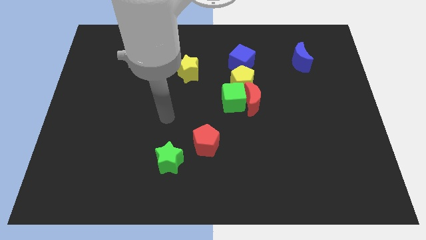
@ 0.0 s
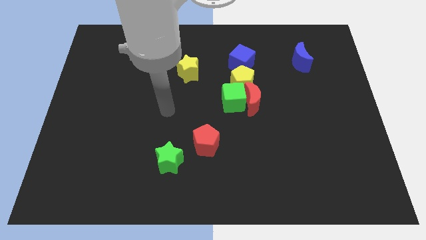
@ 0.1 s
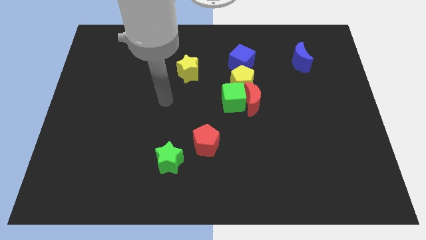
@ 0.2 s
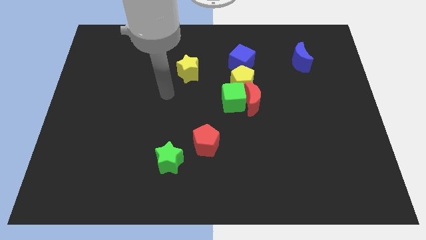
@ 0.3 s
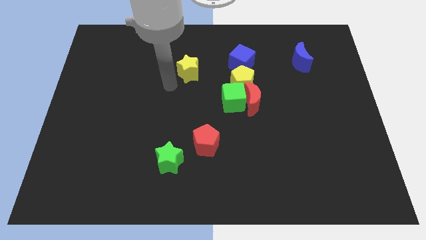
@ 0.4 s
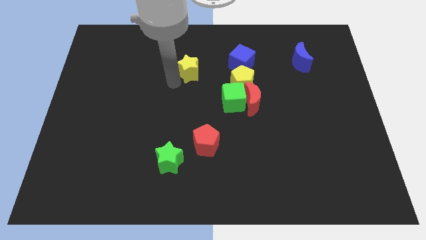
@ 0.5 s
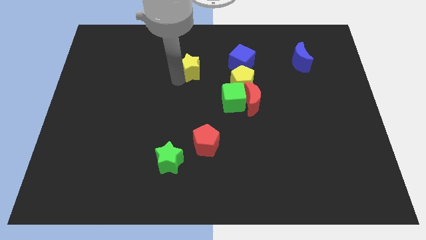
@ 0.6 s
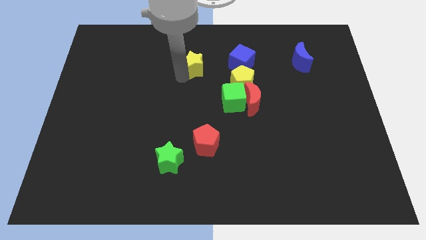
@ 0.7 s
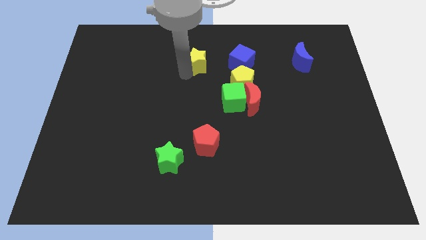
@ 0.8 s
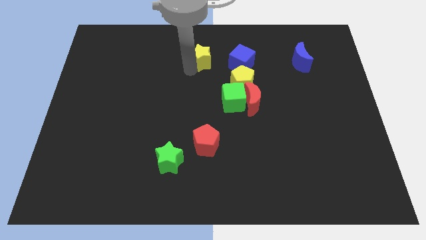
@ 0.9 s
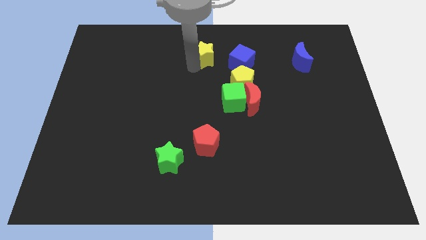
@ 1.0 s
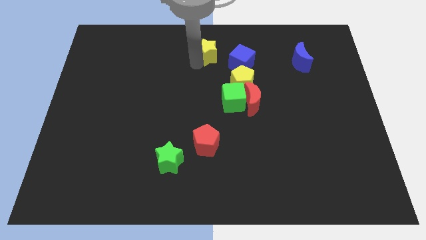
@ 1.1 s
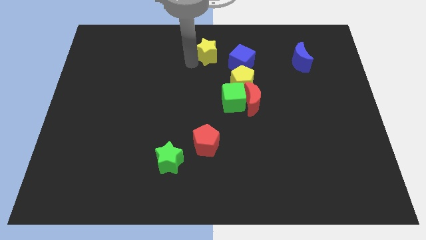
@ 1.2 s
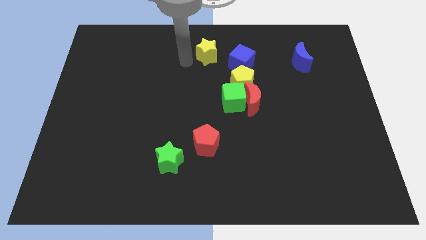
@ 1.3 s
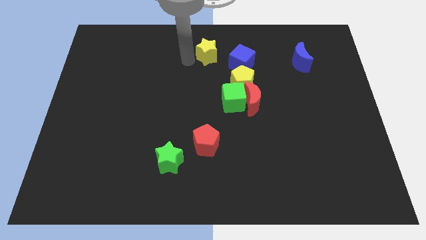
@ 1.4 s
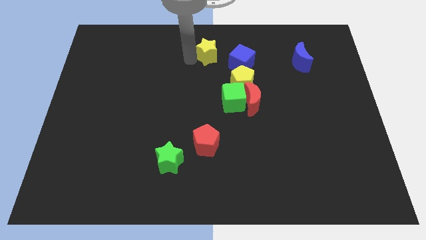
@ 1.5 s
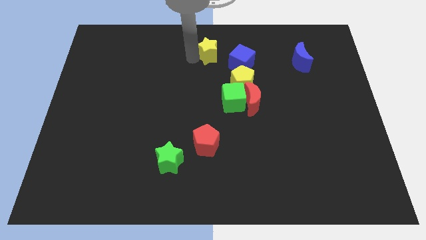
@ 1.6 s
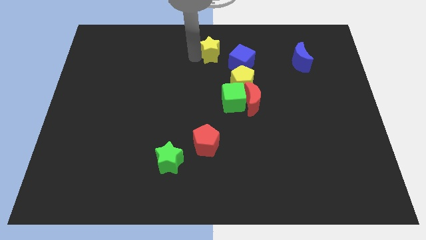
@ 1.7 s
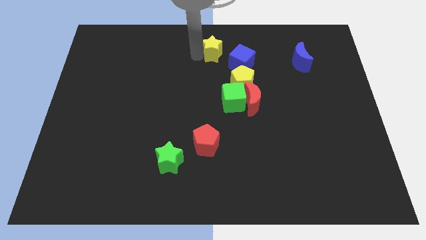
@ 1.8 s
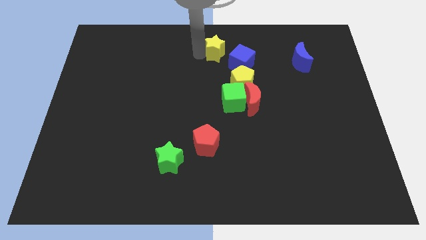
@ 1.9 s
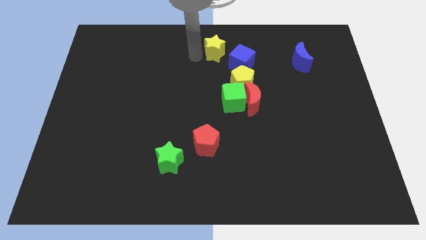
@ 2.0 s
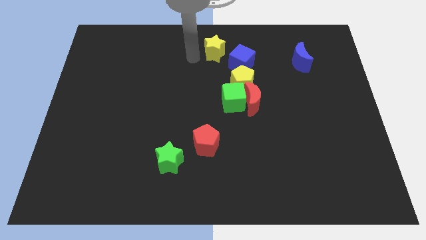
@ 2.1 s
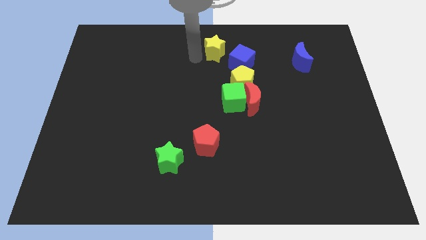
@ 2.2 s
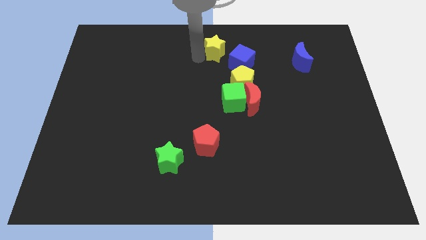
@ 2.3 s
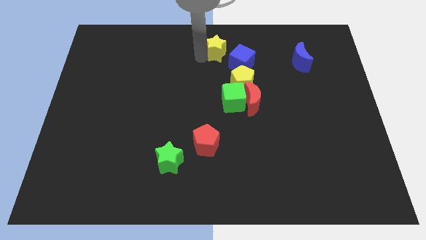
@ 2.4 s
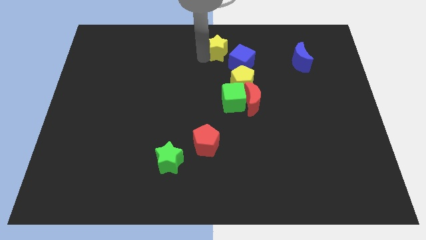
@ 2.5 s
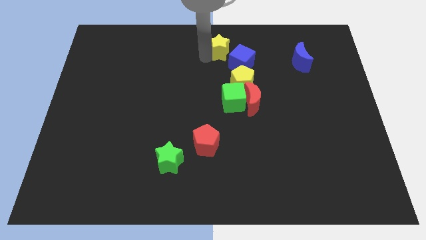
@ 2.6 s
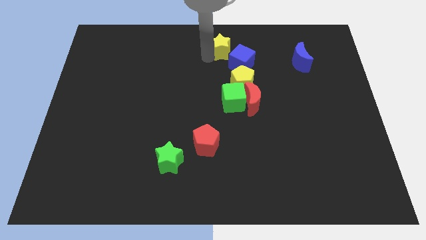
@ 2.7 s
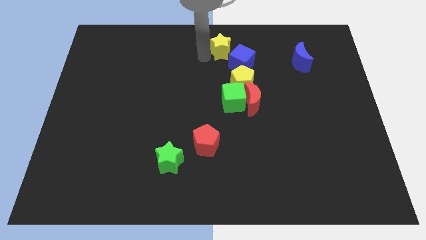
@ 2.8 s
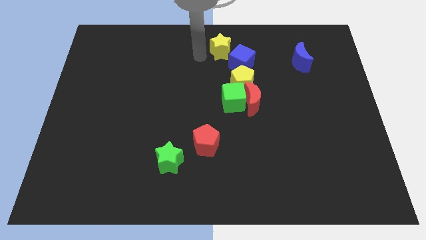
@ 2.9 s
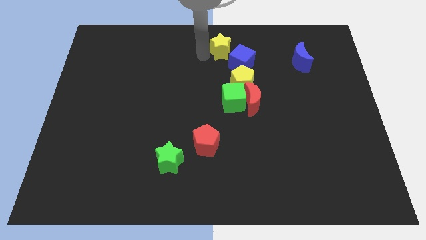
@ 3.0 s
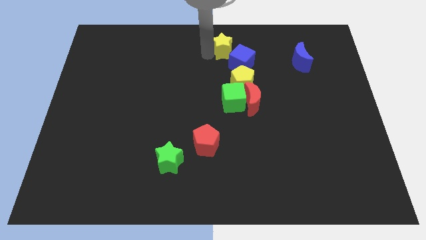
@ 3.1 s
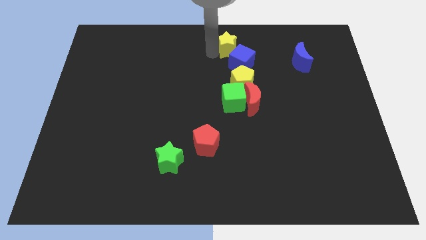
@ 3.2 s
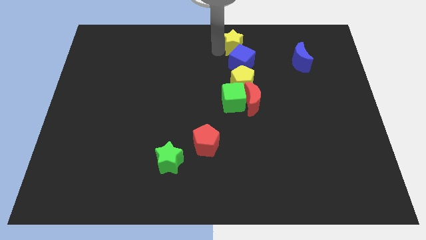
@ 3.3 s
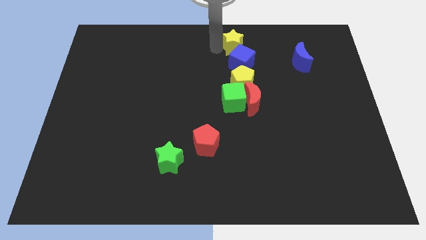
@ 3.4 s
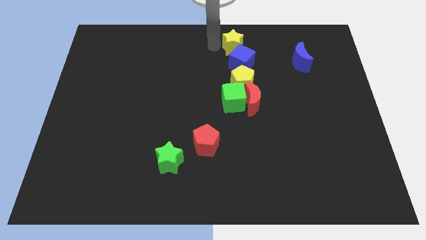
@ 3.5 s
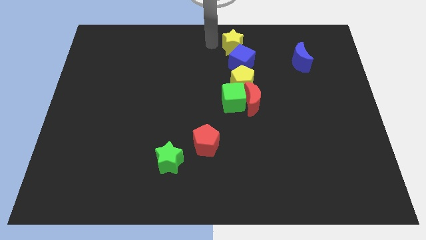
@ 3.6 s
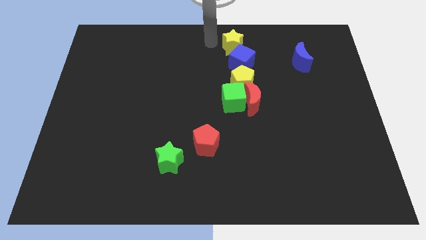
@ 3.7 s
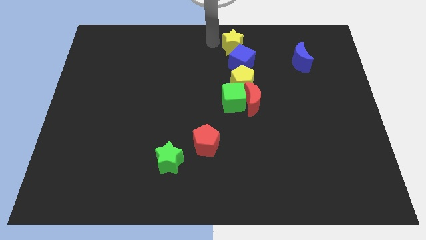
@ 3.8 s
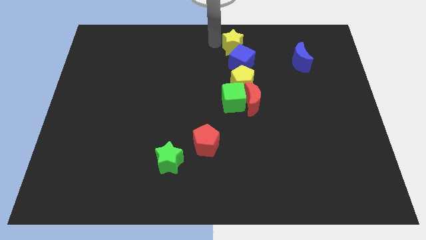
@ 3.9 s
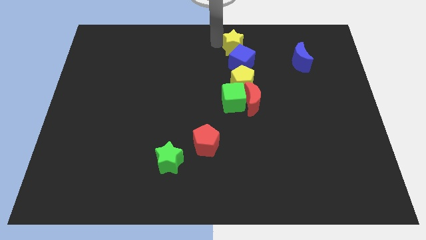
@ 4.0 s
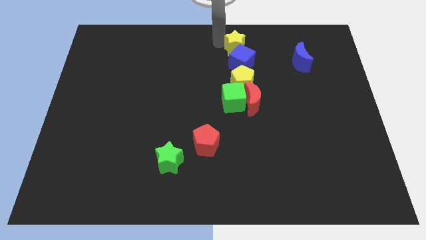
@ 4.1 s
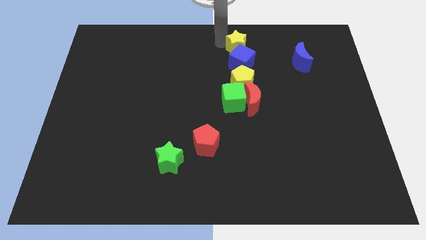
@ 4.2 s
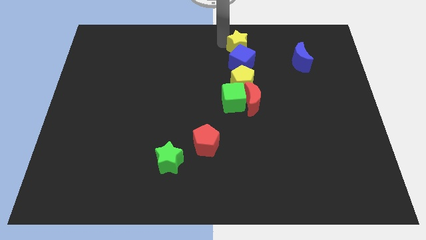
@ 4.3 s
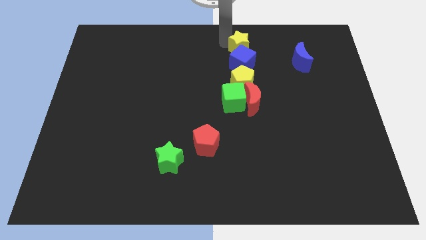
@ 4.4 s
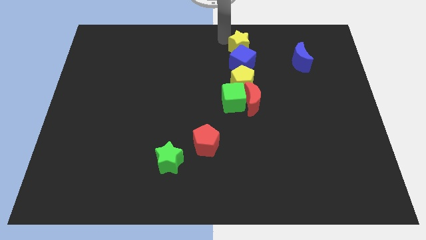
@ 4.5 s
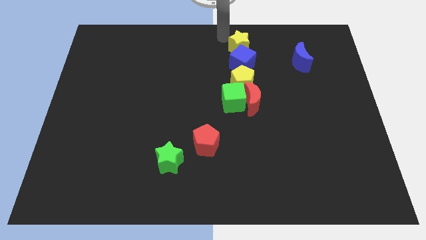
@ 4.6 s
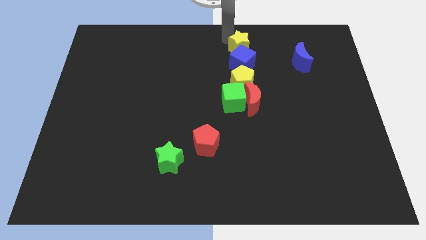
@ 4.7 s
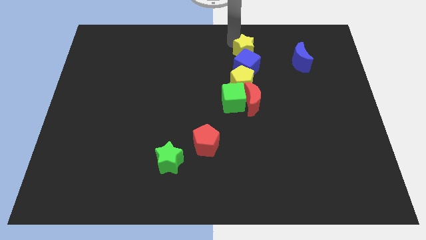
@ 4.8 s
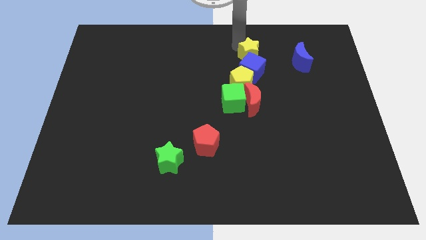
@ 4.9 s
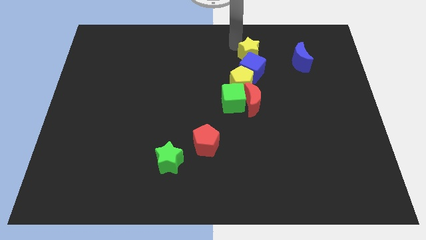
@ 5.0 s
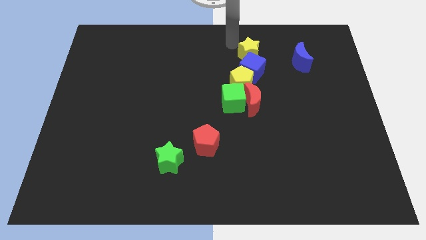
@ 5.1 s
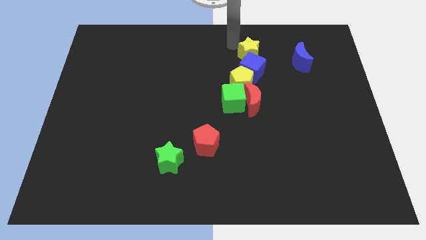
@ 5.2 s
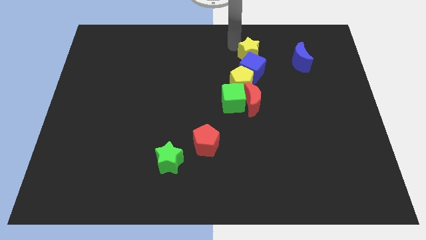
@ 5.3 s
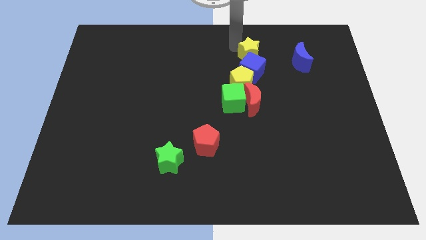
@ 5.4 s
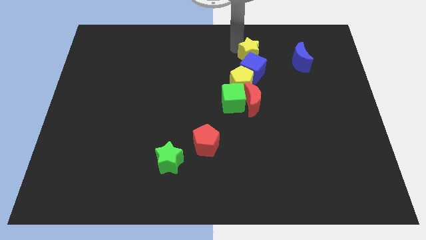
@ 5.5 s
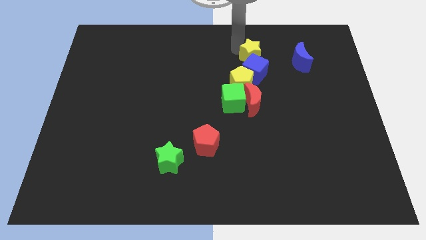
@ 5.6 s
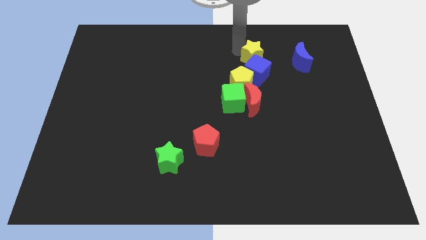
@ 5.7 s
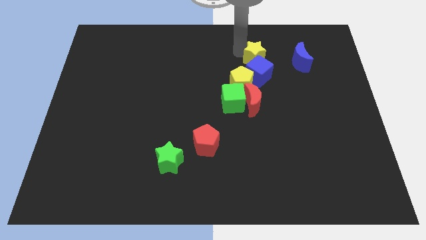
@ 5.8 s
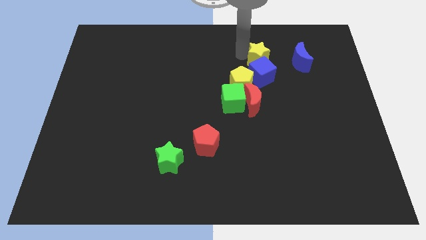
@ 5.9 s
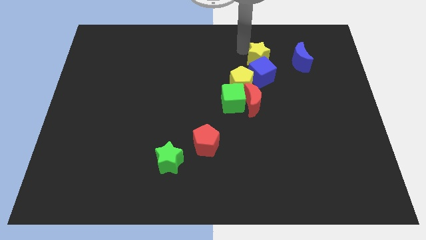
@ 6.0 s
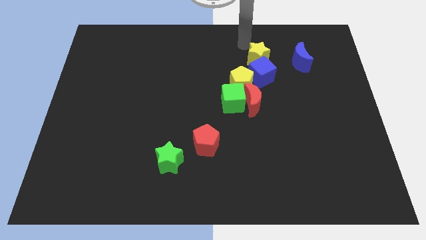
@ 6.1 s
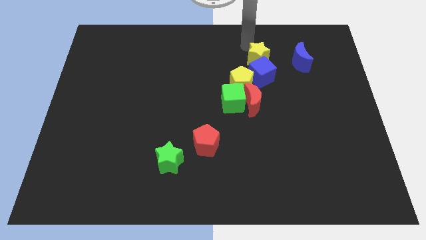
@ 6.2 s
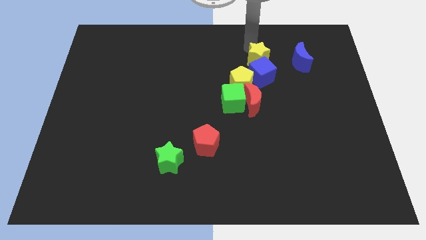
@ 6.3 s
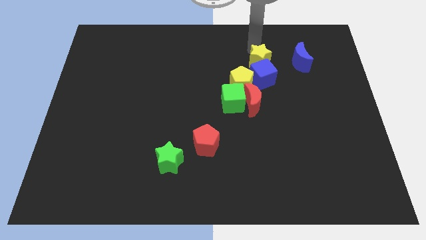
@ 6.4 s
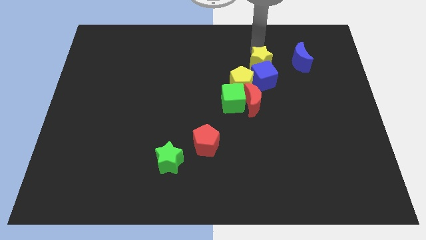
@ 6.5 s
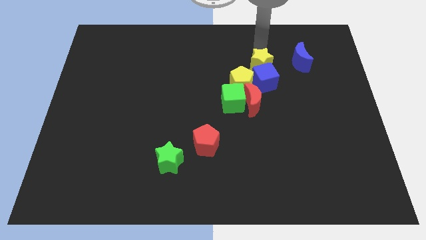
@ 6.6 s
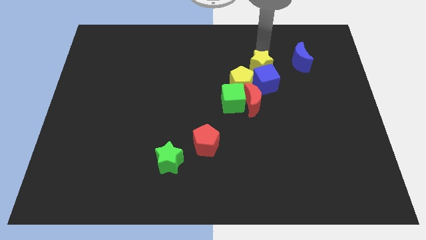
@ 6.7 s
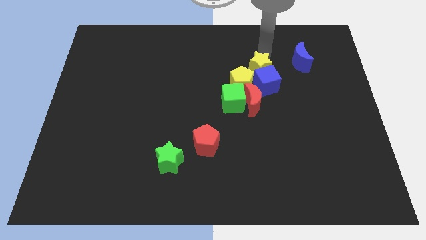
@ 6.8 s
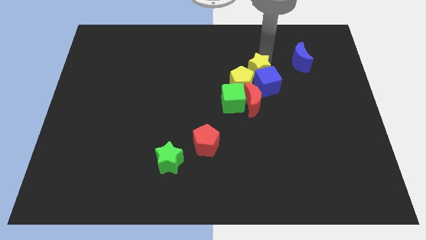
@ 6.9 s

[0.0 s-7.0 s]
slide the yellow star to the right of the yellow pentagon
